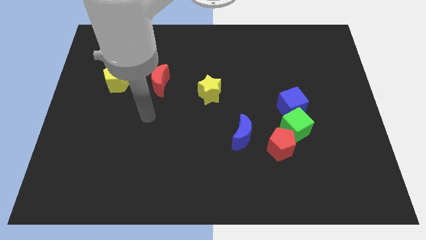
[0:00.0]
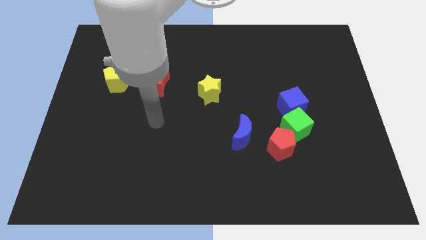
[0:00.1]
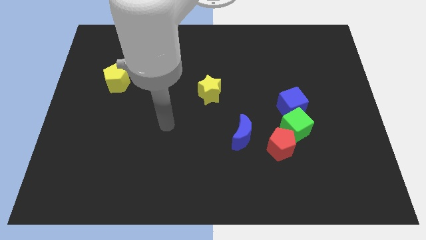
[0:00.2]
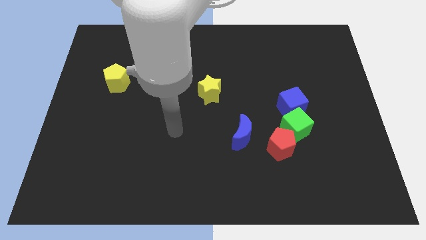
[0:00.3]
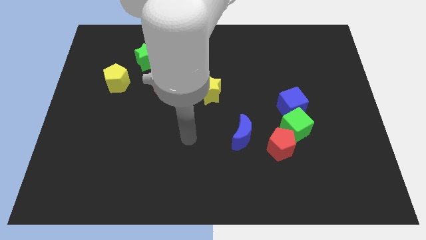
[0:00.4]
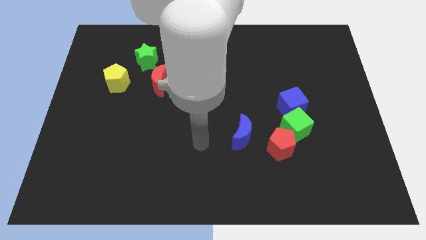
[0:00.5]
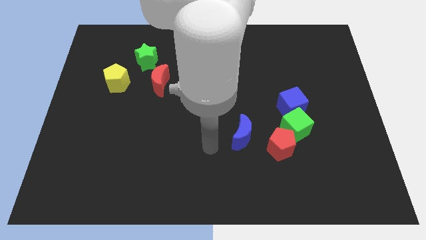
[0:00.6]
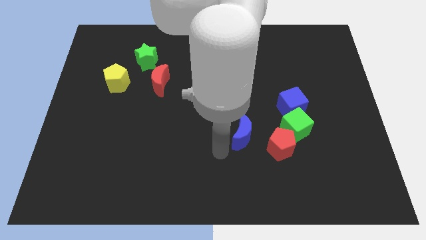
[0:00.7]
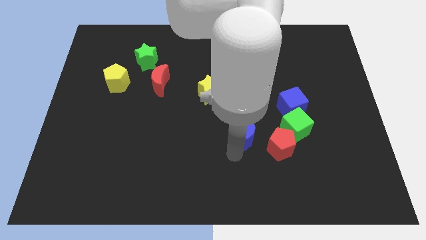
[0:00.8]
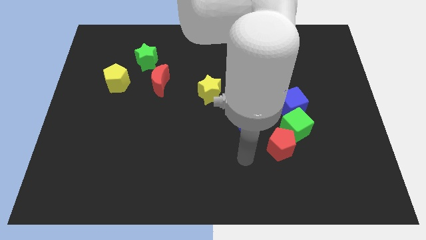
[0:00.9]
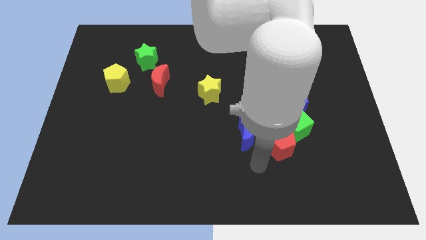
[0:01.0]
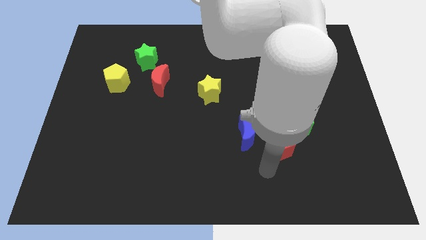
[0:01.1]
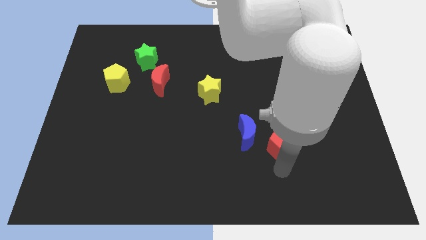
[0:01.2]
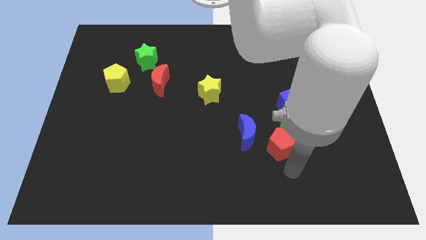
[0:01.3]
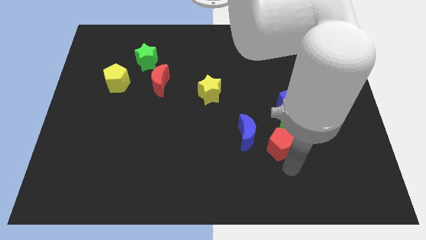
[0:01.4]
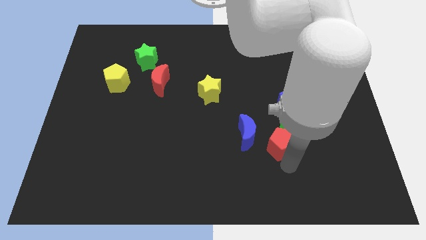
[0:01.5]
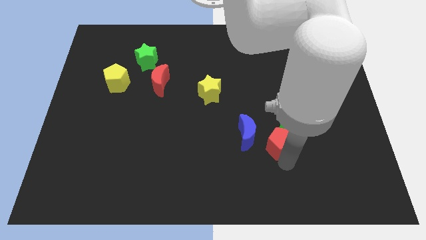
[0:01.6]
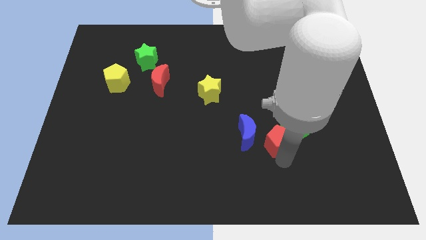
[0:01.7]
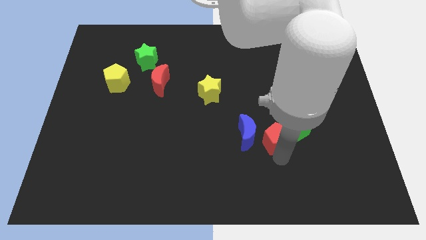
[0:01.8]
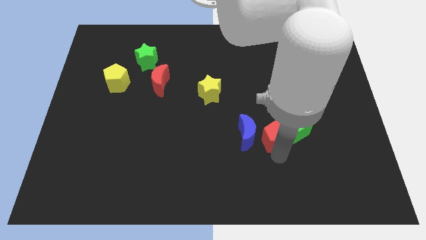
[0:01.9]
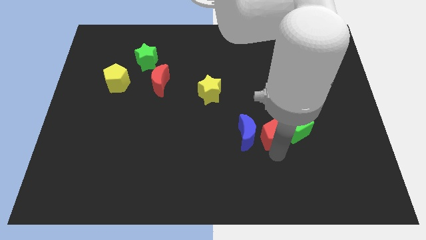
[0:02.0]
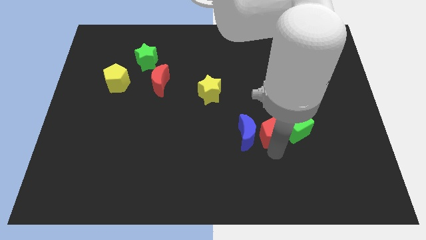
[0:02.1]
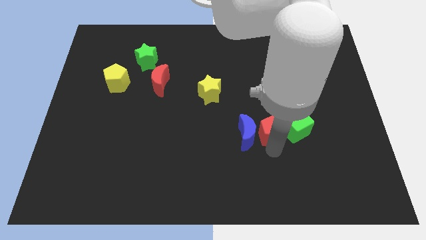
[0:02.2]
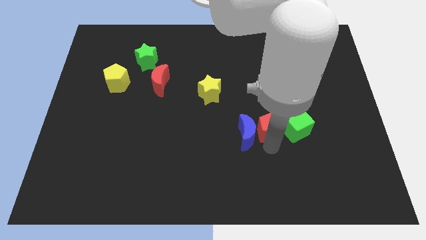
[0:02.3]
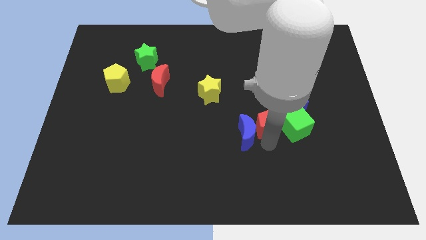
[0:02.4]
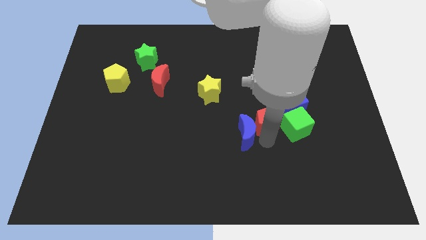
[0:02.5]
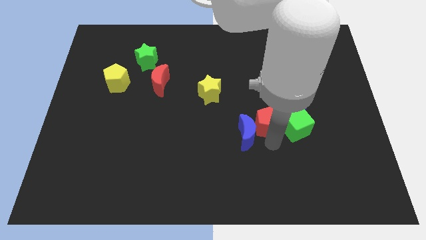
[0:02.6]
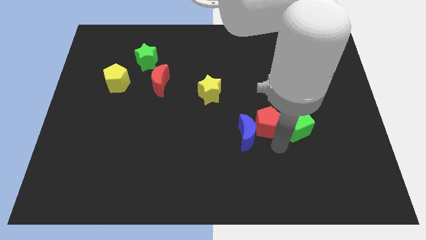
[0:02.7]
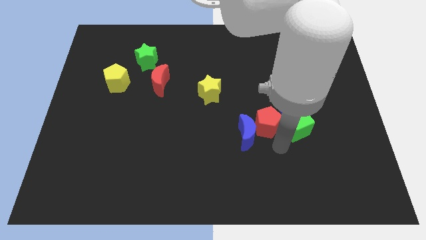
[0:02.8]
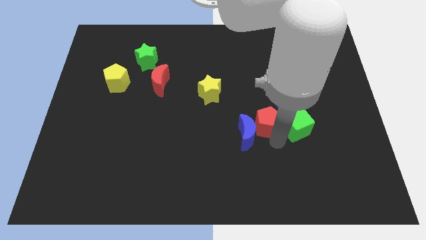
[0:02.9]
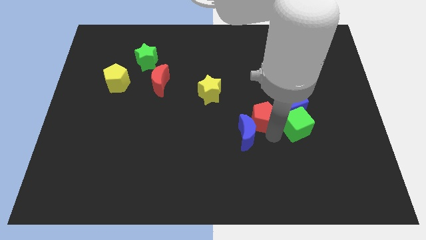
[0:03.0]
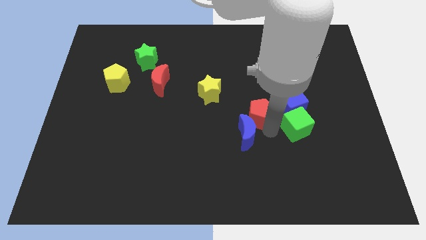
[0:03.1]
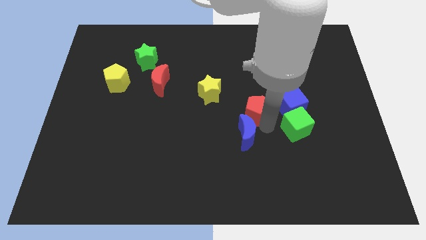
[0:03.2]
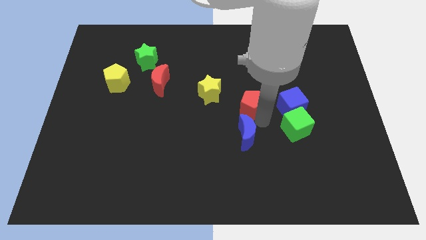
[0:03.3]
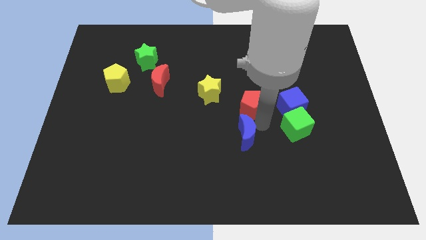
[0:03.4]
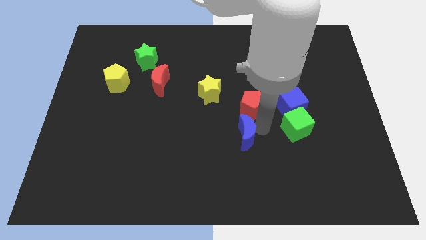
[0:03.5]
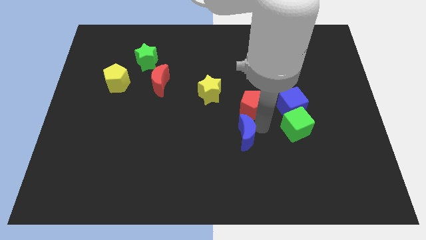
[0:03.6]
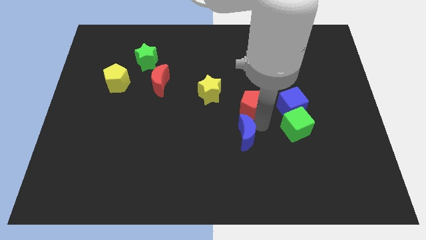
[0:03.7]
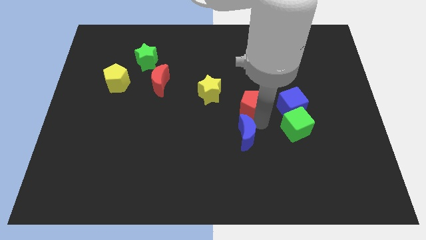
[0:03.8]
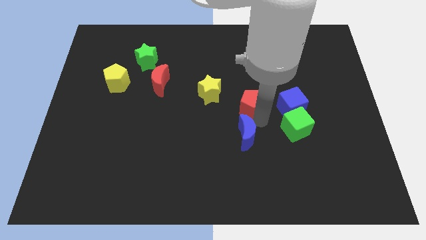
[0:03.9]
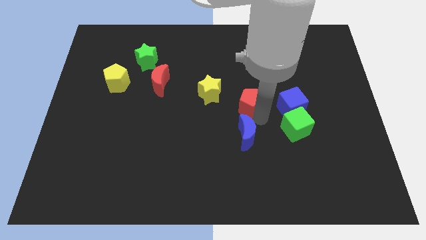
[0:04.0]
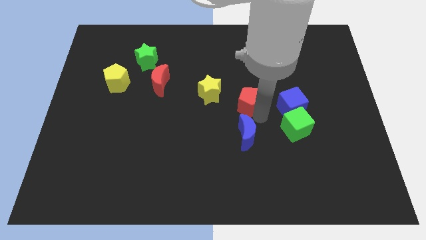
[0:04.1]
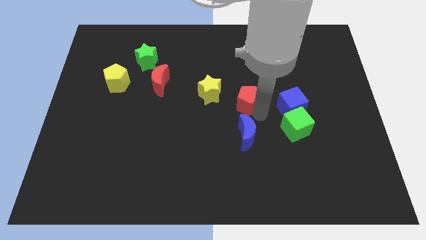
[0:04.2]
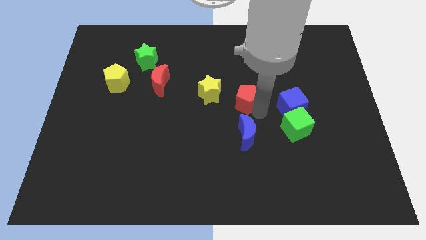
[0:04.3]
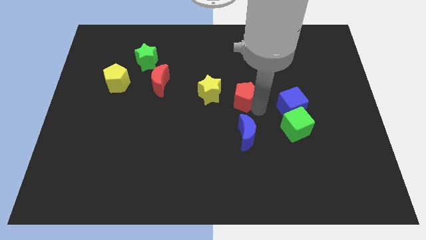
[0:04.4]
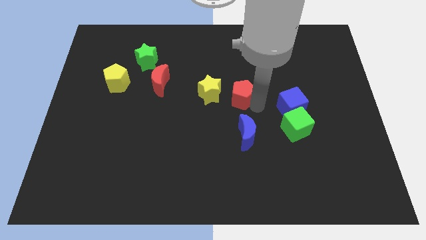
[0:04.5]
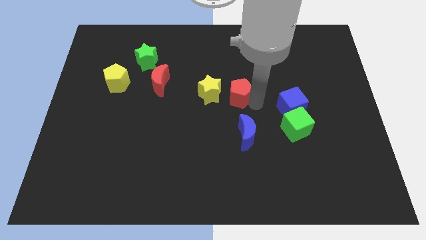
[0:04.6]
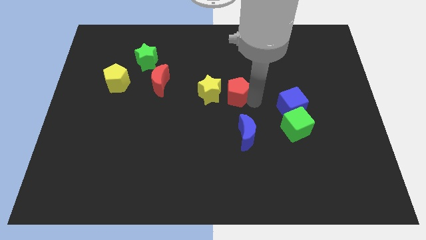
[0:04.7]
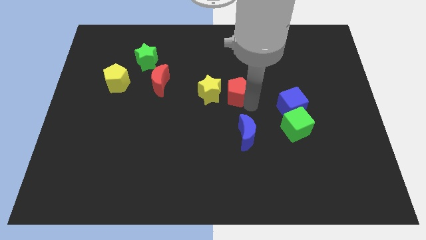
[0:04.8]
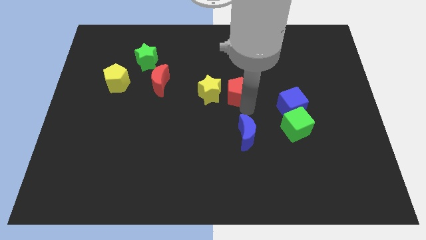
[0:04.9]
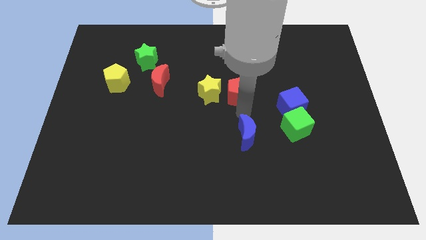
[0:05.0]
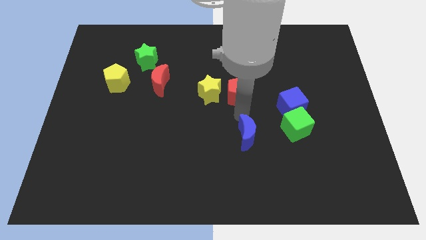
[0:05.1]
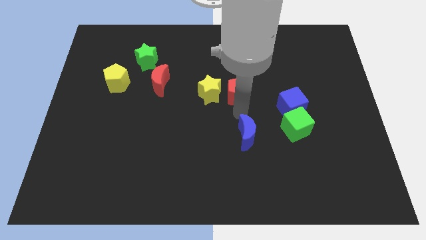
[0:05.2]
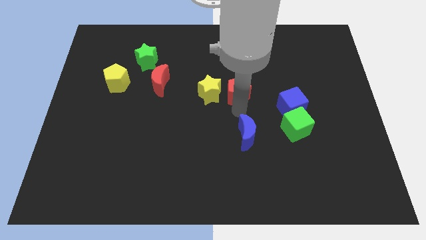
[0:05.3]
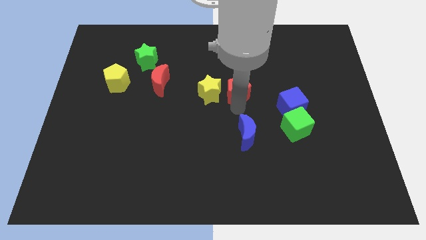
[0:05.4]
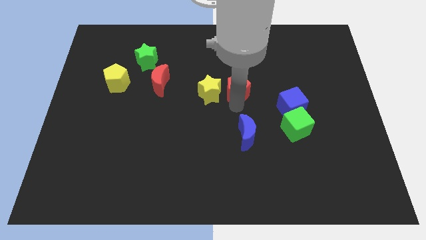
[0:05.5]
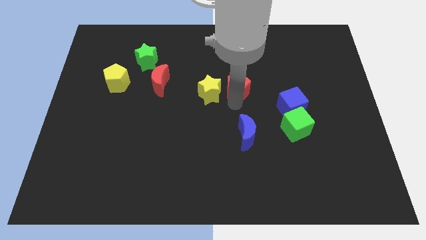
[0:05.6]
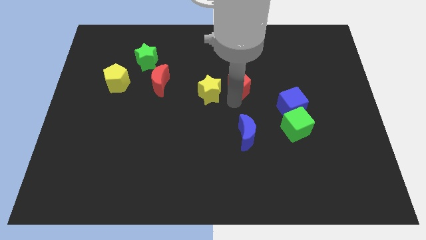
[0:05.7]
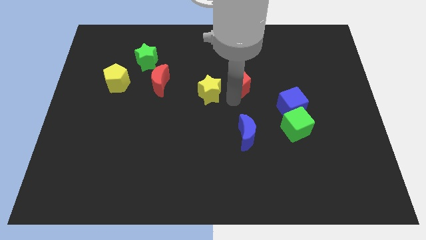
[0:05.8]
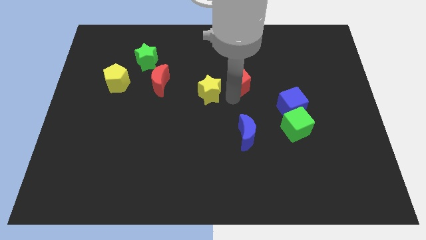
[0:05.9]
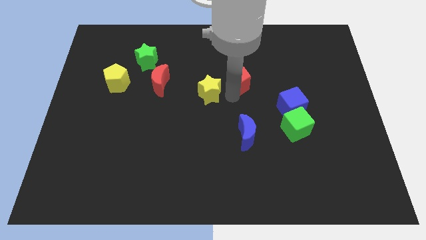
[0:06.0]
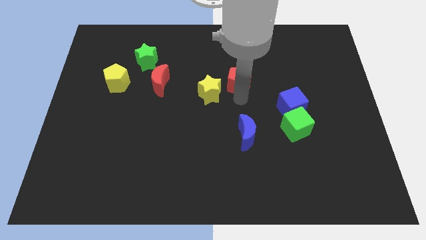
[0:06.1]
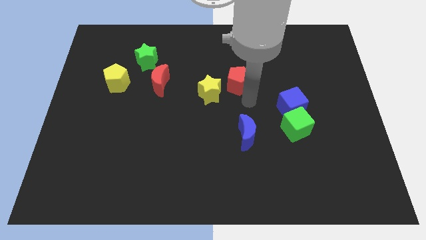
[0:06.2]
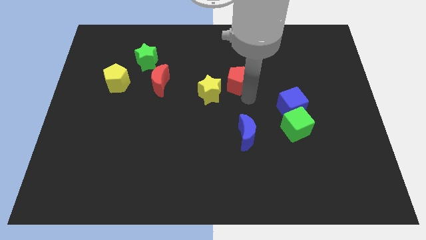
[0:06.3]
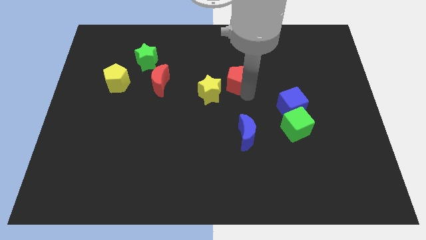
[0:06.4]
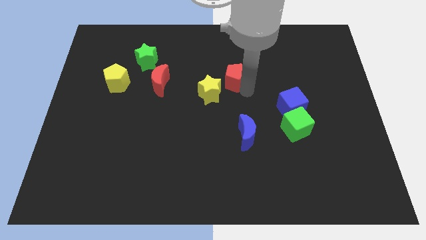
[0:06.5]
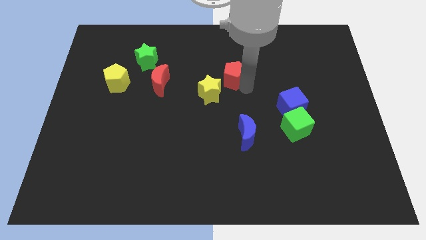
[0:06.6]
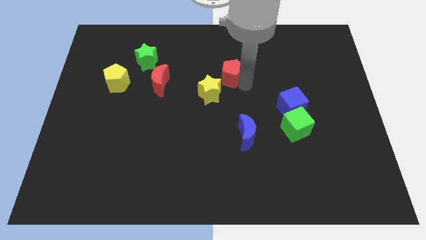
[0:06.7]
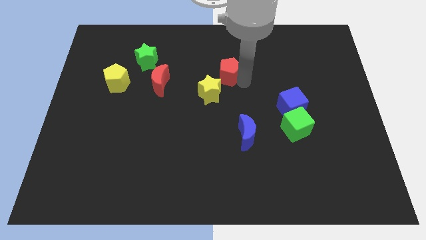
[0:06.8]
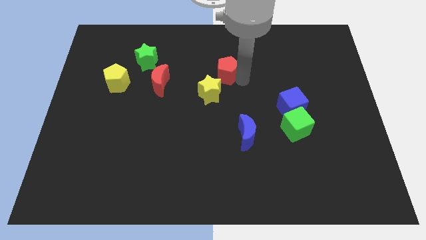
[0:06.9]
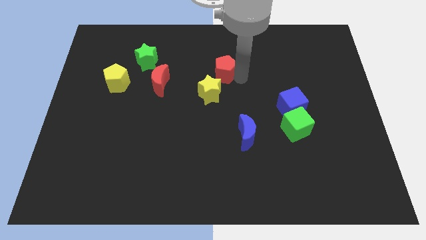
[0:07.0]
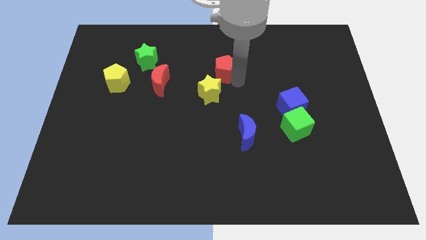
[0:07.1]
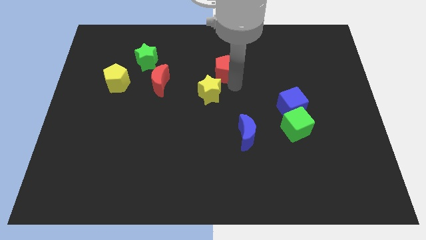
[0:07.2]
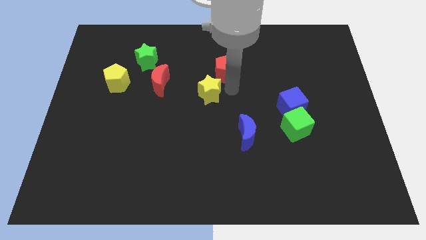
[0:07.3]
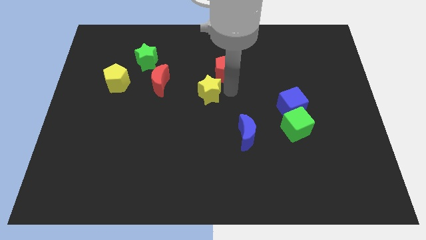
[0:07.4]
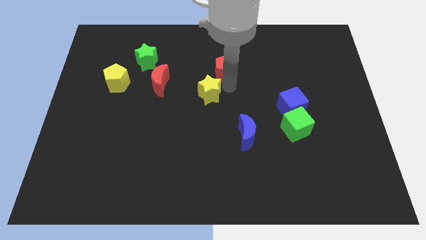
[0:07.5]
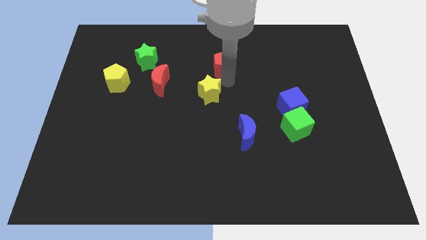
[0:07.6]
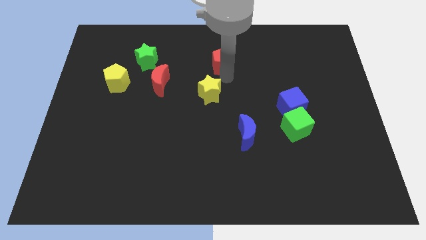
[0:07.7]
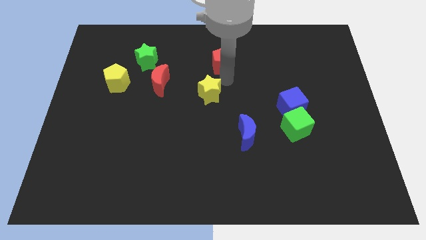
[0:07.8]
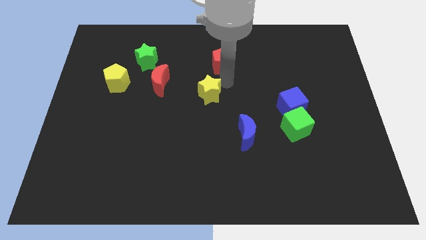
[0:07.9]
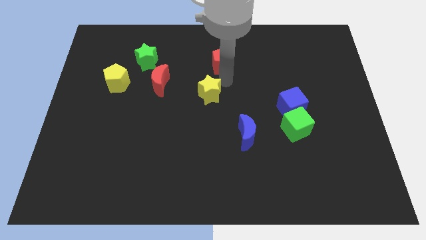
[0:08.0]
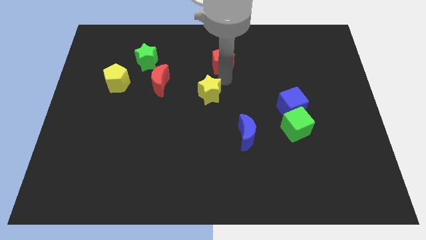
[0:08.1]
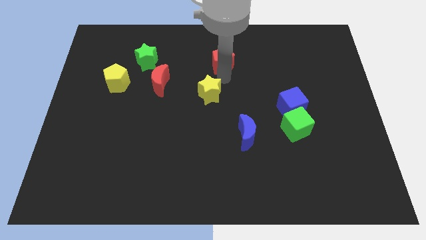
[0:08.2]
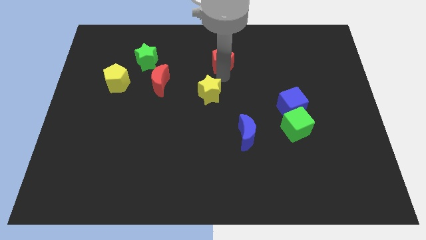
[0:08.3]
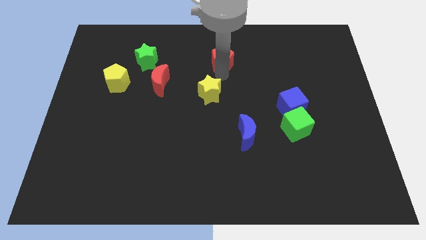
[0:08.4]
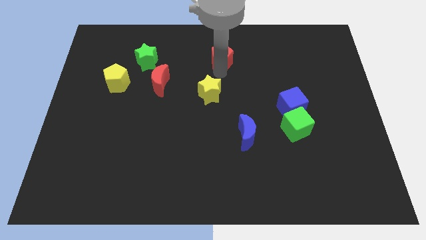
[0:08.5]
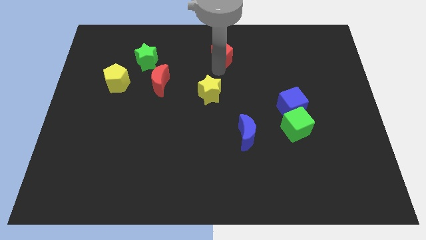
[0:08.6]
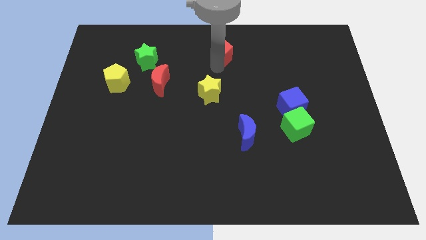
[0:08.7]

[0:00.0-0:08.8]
push the red pentagon to the top side
